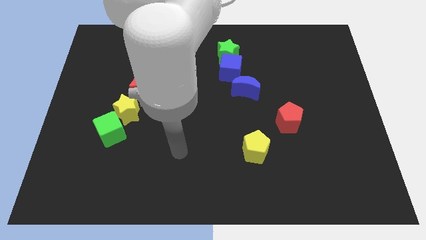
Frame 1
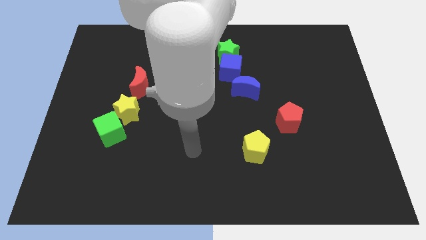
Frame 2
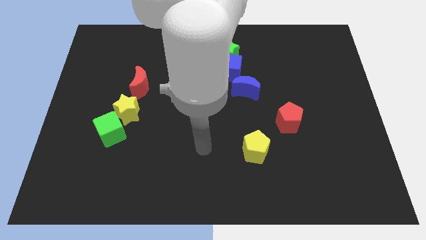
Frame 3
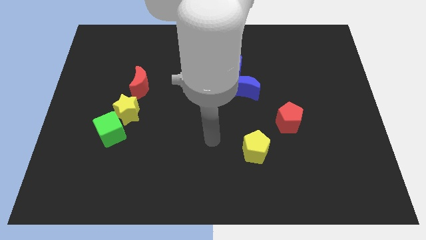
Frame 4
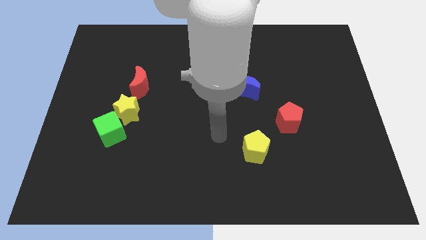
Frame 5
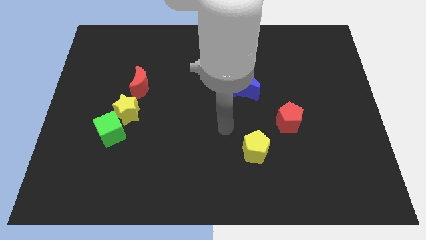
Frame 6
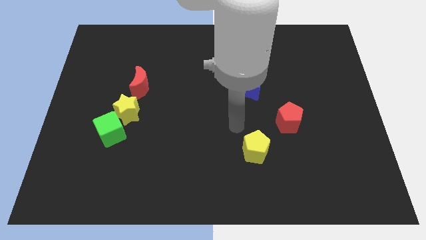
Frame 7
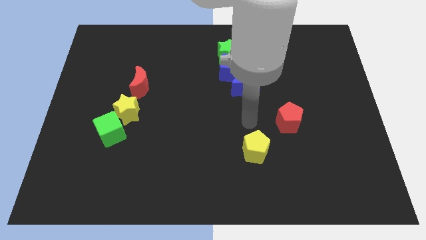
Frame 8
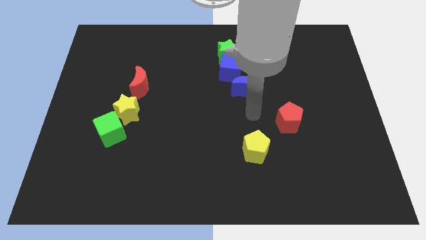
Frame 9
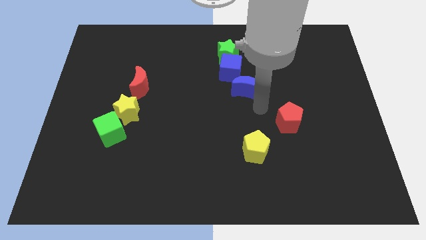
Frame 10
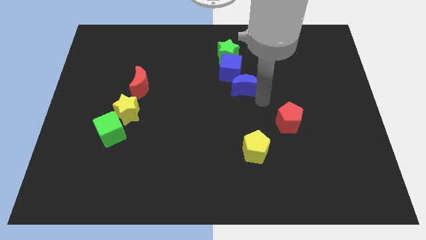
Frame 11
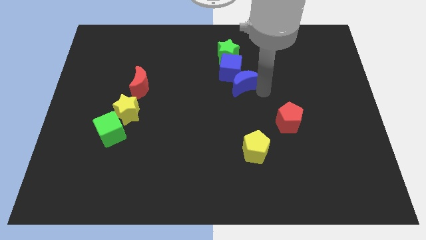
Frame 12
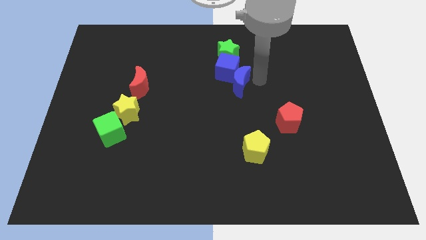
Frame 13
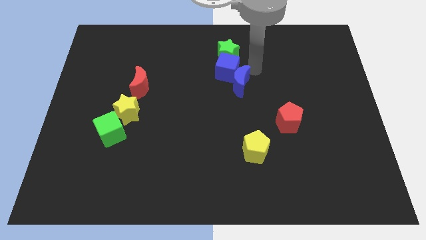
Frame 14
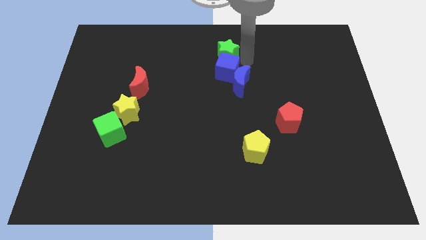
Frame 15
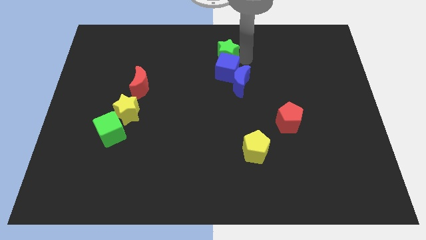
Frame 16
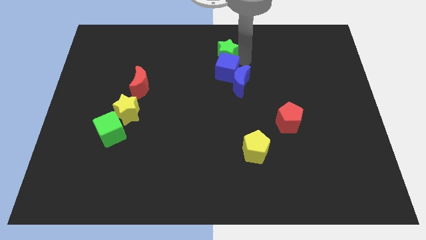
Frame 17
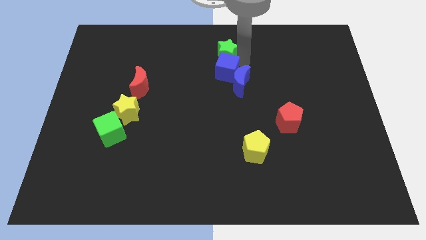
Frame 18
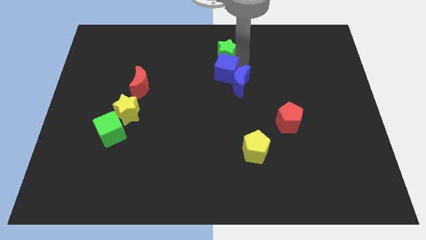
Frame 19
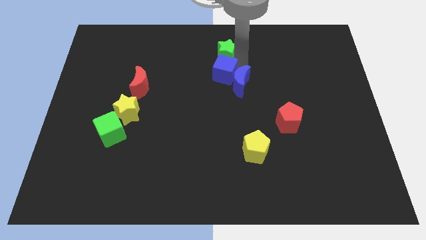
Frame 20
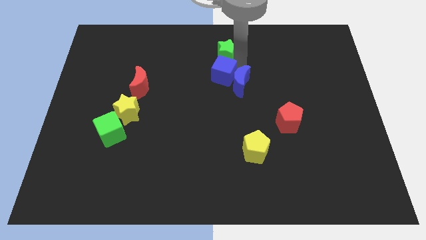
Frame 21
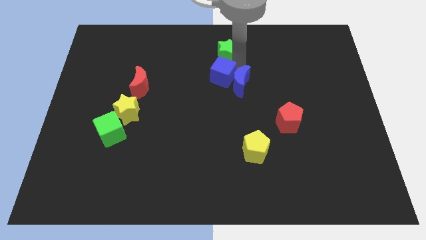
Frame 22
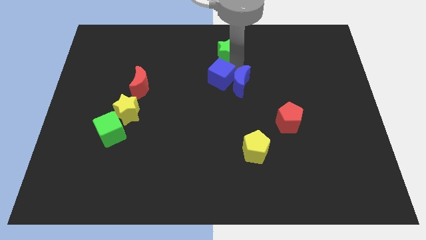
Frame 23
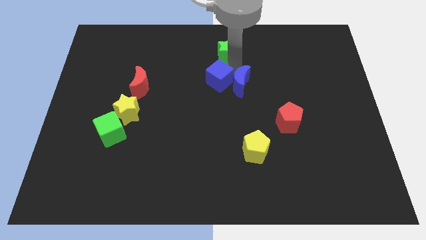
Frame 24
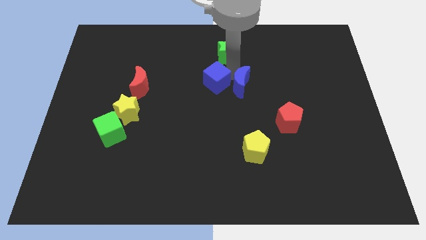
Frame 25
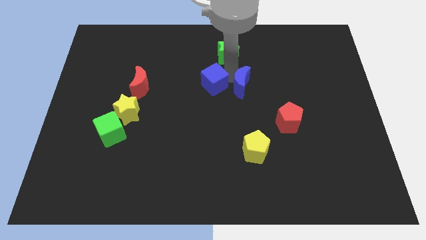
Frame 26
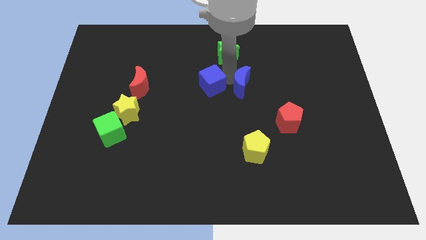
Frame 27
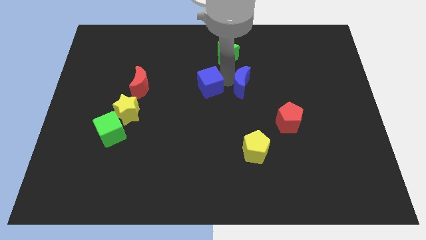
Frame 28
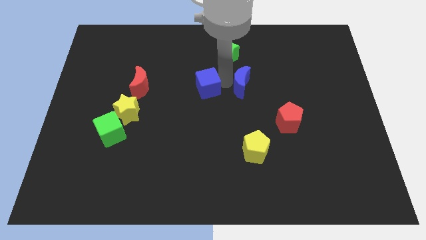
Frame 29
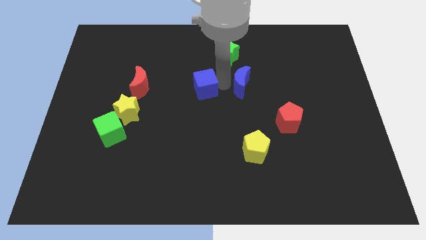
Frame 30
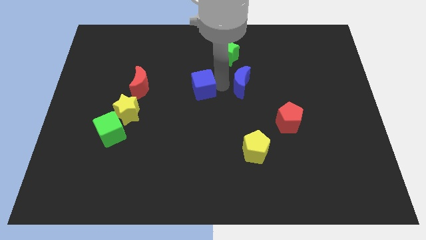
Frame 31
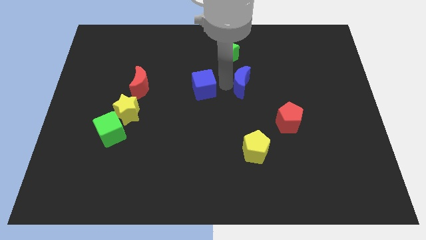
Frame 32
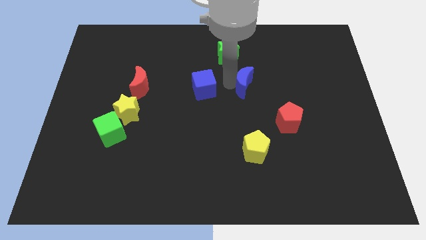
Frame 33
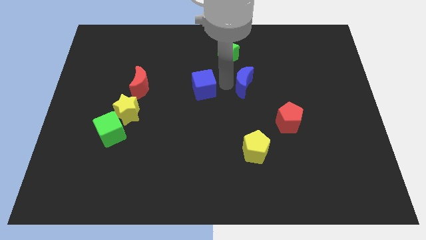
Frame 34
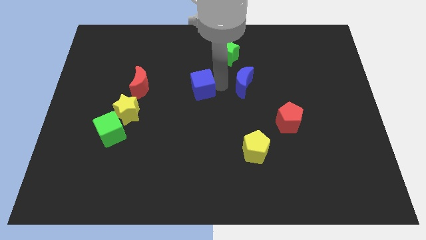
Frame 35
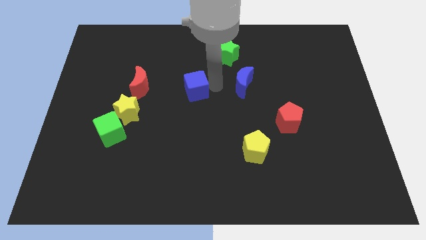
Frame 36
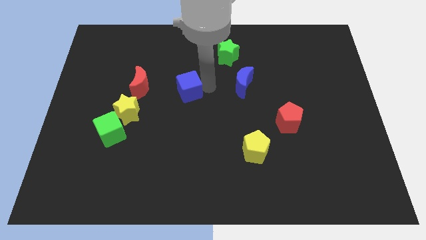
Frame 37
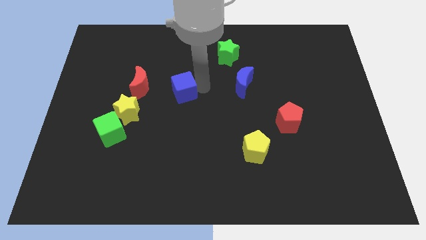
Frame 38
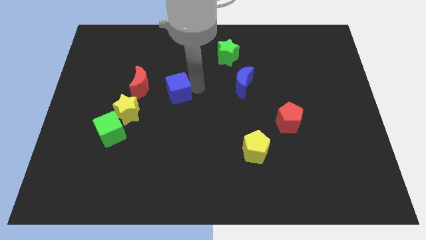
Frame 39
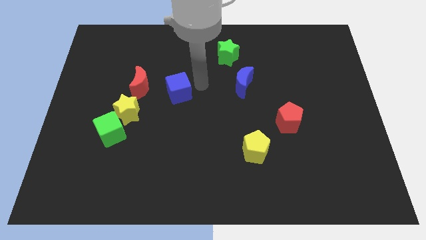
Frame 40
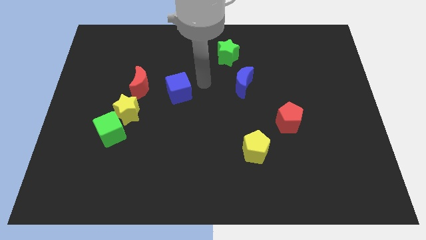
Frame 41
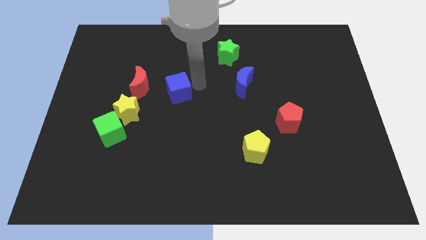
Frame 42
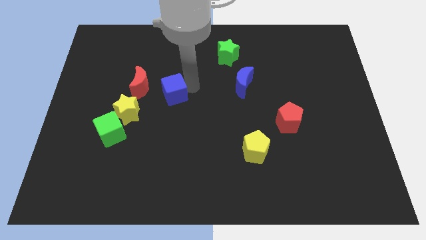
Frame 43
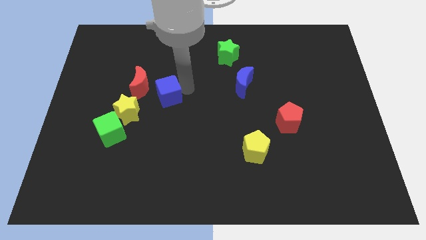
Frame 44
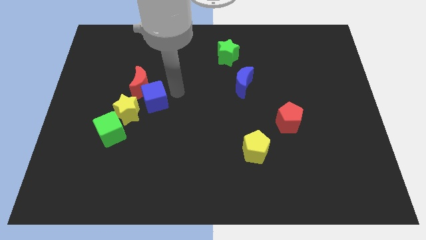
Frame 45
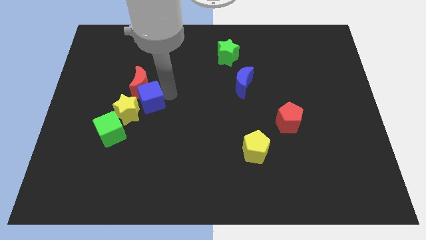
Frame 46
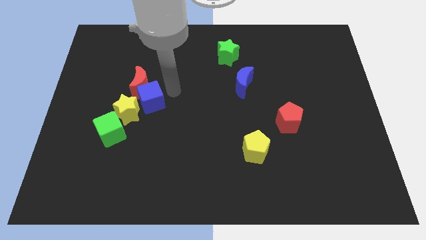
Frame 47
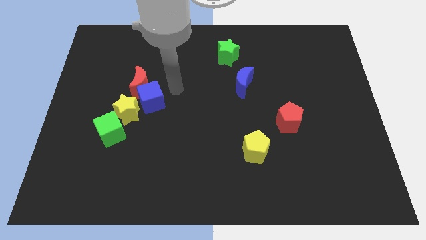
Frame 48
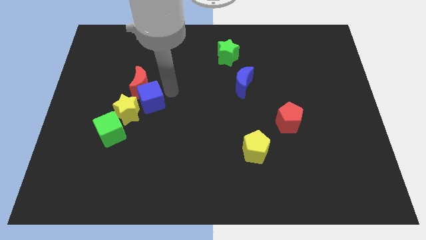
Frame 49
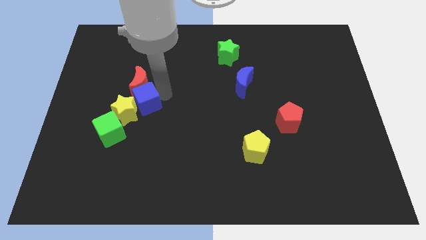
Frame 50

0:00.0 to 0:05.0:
move the blue cube close to the yellow star

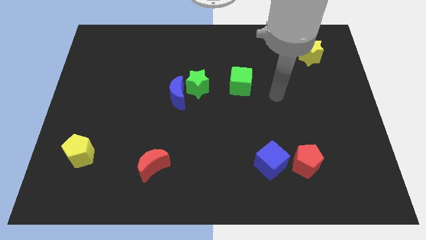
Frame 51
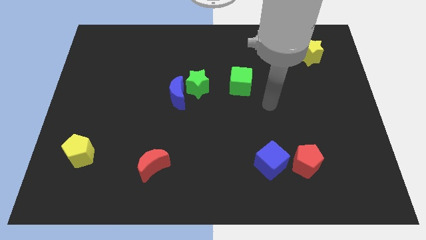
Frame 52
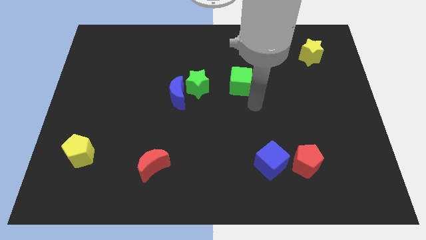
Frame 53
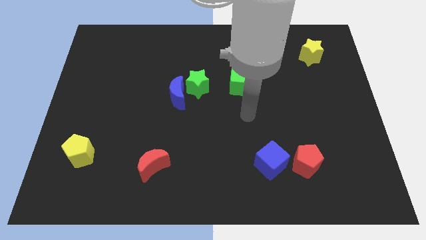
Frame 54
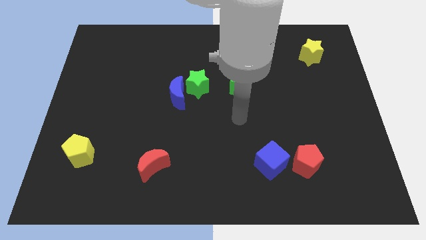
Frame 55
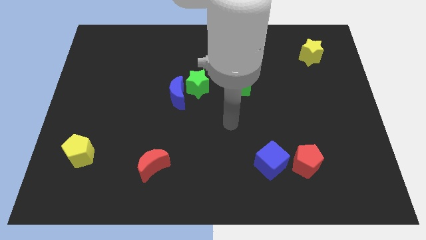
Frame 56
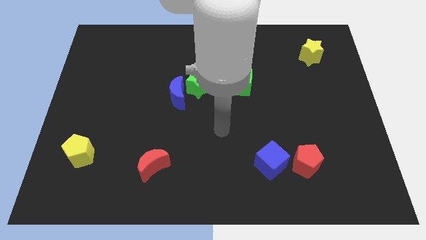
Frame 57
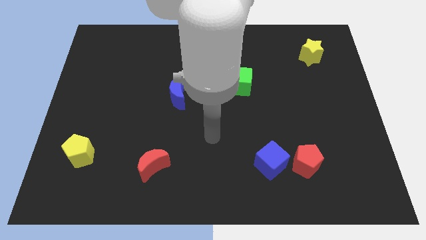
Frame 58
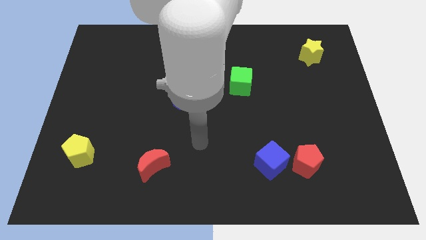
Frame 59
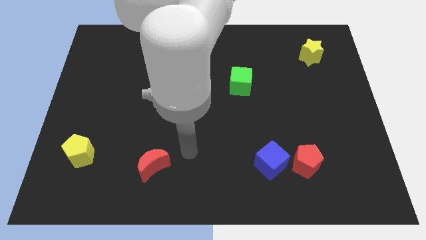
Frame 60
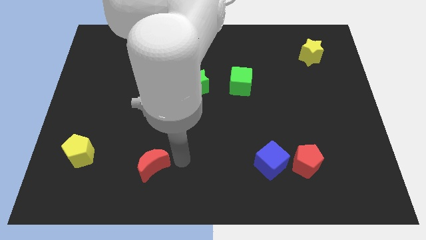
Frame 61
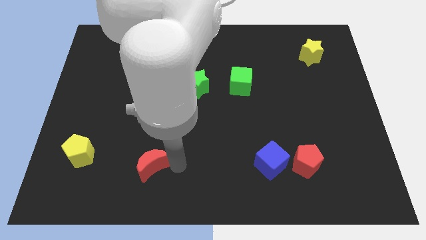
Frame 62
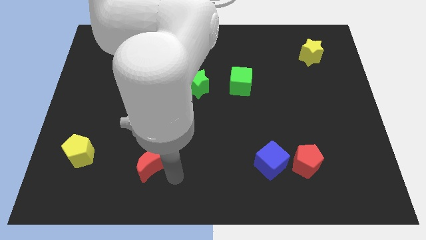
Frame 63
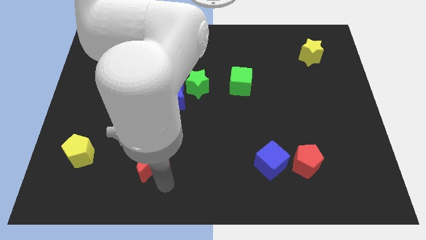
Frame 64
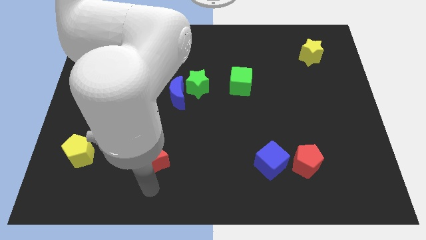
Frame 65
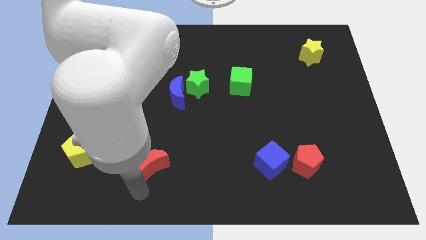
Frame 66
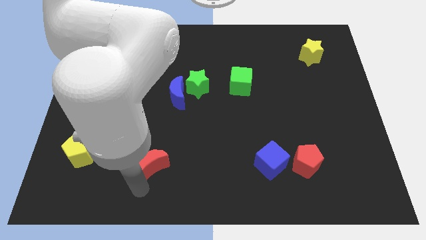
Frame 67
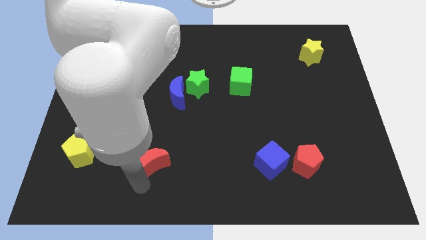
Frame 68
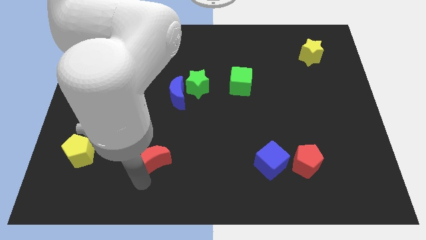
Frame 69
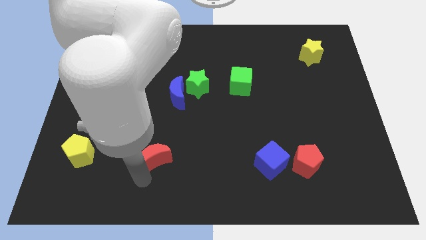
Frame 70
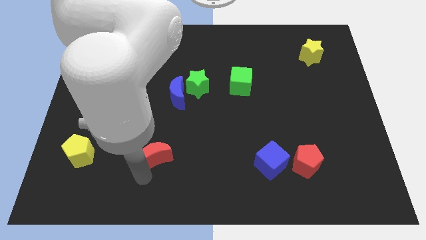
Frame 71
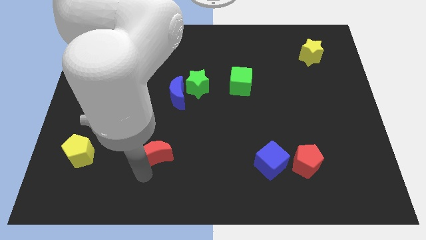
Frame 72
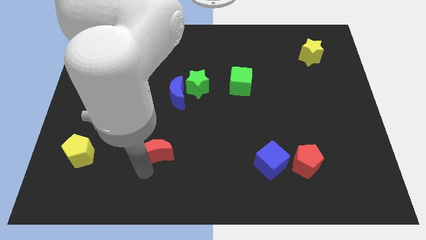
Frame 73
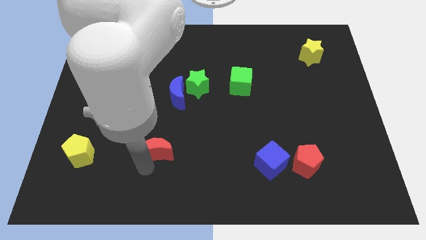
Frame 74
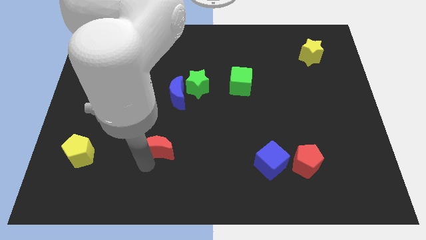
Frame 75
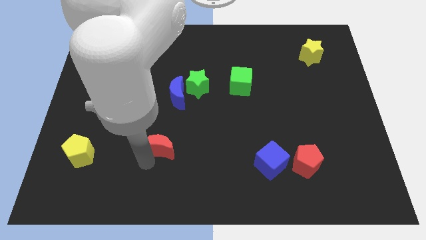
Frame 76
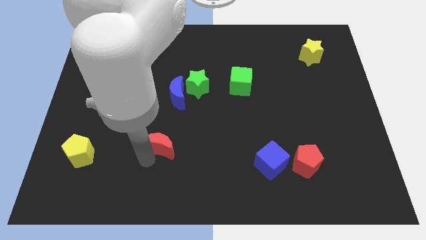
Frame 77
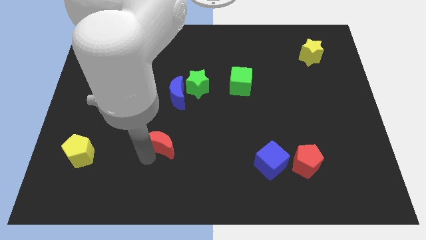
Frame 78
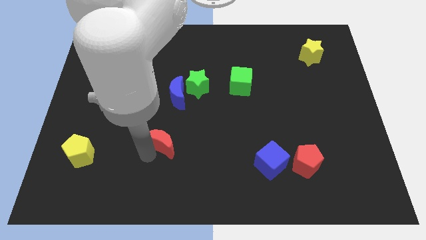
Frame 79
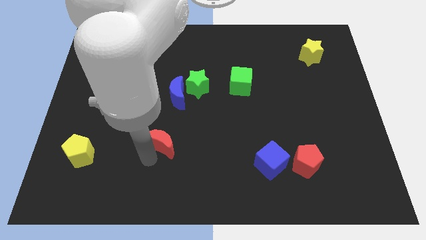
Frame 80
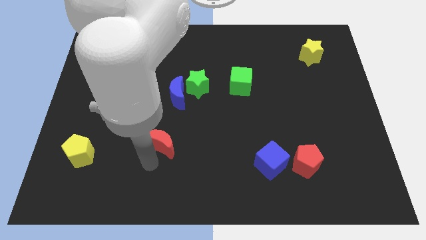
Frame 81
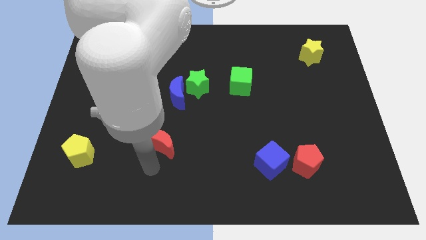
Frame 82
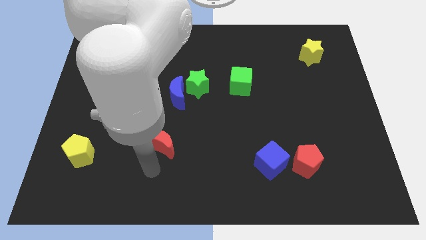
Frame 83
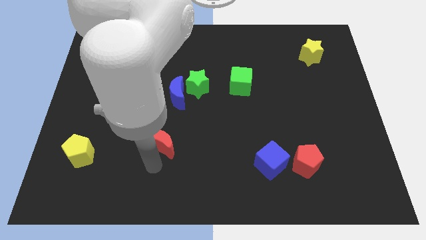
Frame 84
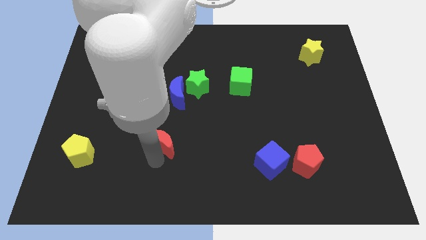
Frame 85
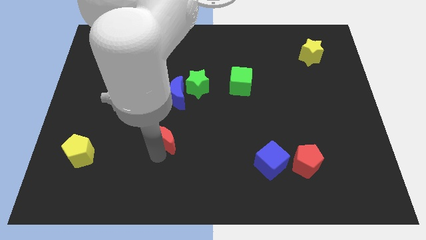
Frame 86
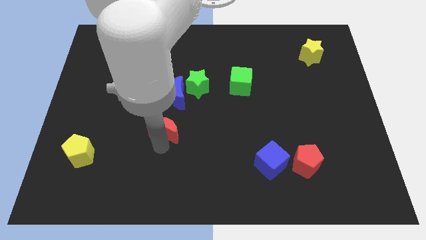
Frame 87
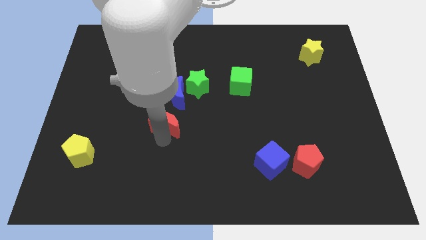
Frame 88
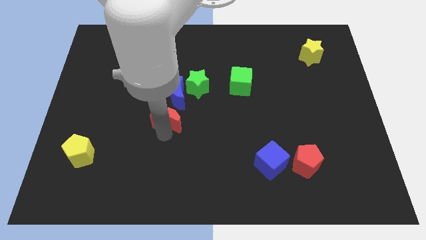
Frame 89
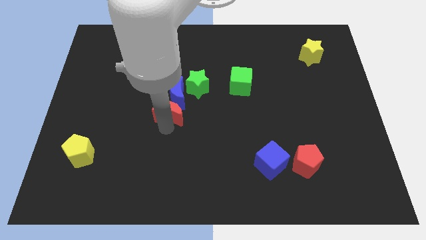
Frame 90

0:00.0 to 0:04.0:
put the red moon towards the blue moon
